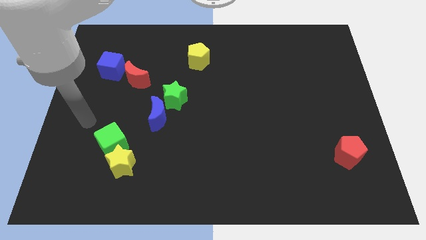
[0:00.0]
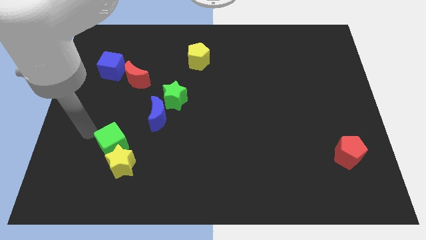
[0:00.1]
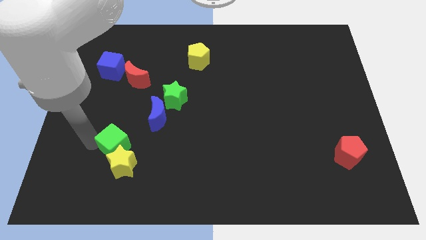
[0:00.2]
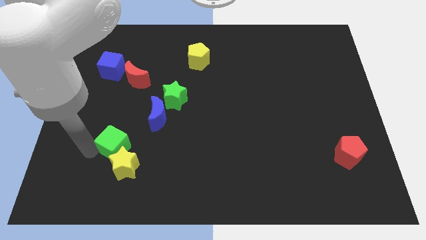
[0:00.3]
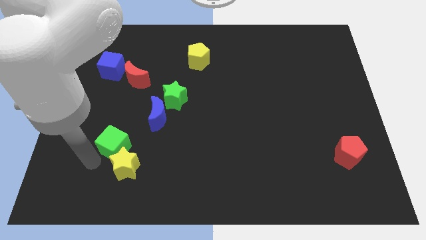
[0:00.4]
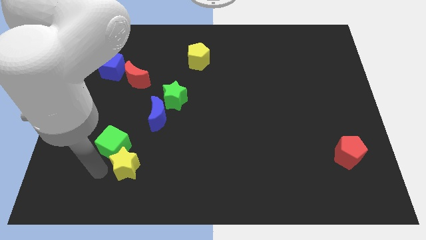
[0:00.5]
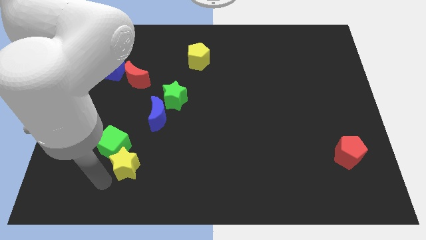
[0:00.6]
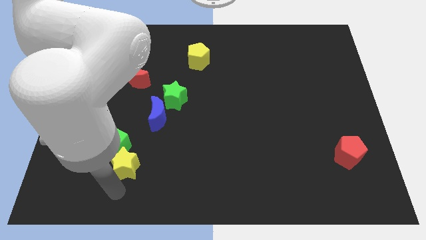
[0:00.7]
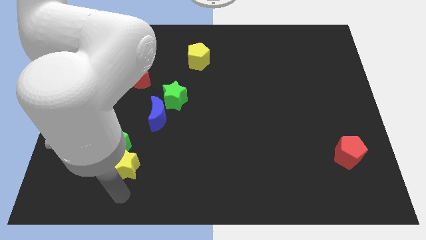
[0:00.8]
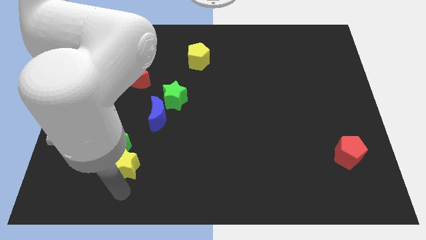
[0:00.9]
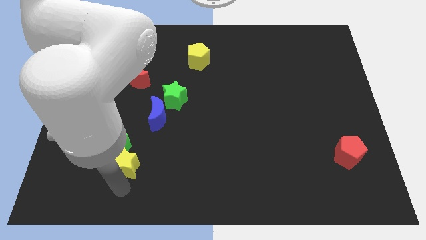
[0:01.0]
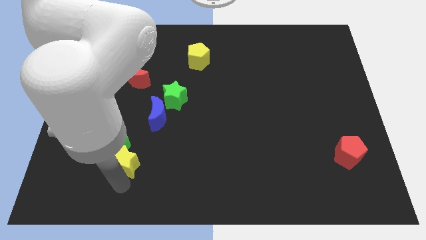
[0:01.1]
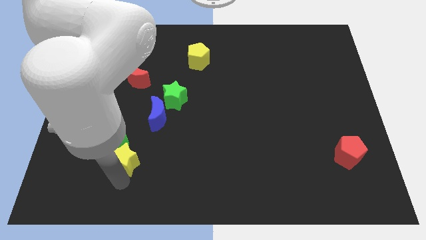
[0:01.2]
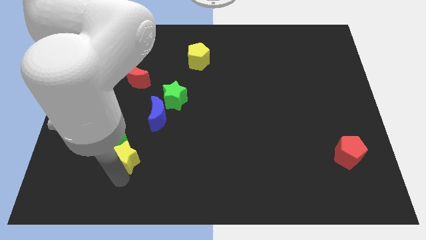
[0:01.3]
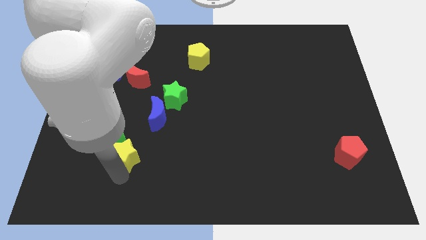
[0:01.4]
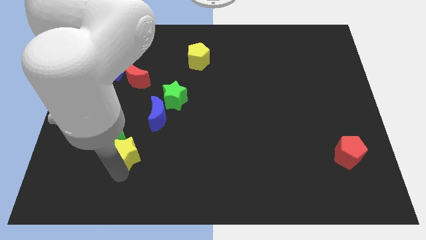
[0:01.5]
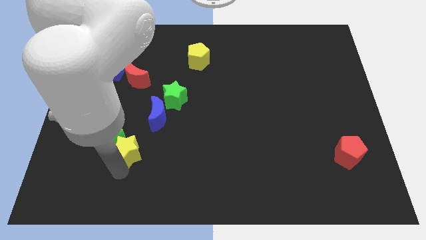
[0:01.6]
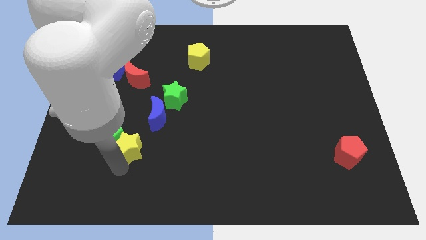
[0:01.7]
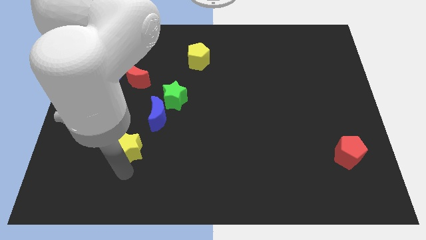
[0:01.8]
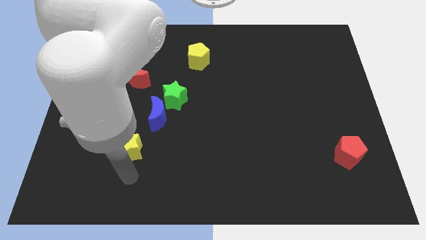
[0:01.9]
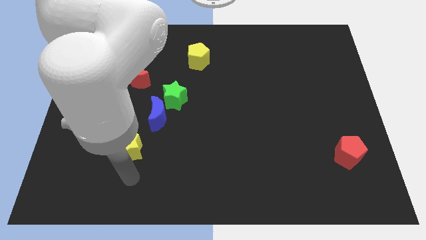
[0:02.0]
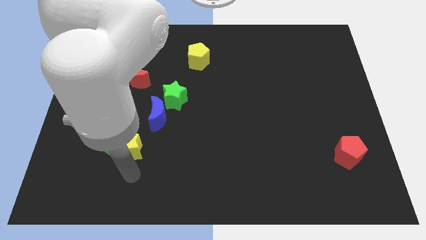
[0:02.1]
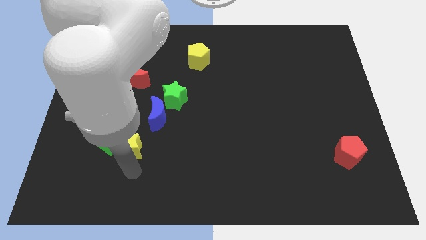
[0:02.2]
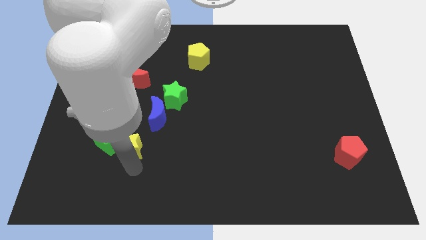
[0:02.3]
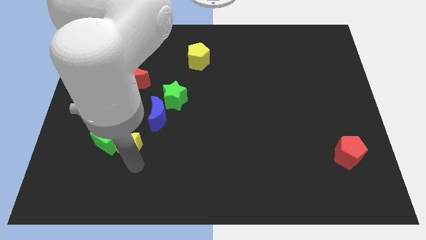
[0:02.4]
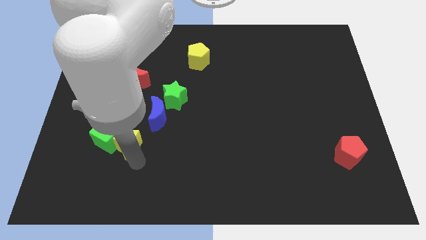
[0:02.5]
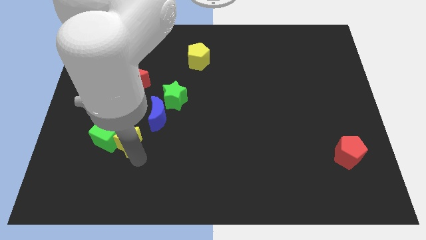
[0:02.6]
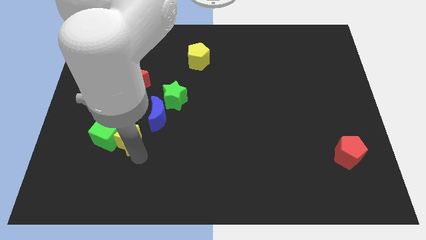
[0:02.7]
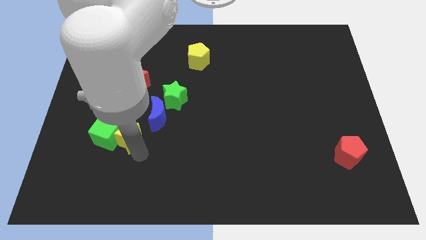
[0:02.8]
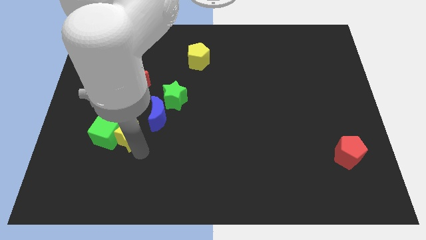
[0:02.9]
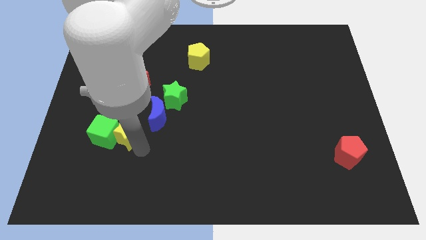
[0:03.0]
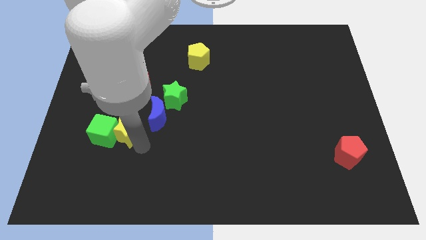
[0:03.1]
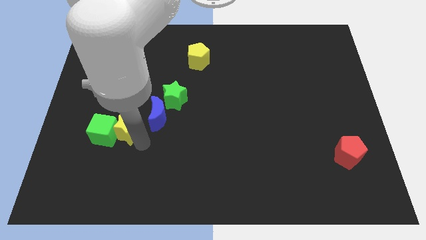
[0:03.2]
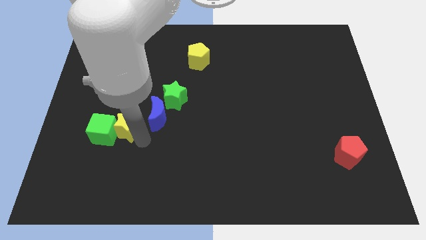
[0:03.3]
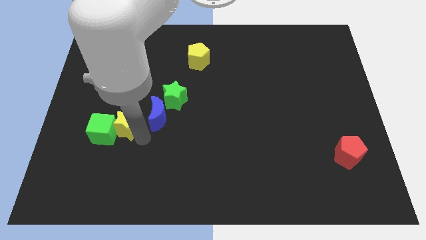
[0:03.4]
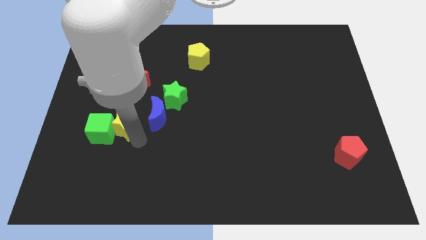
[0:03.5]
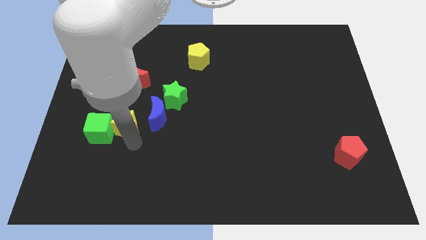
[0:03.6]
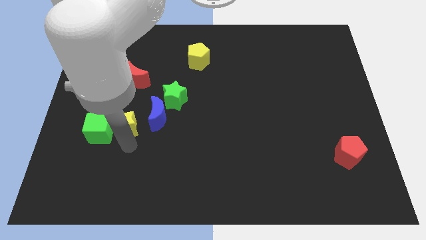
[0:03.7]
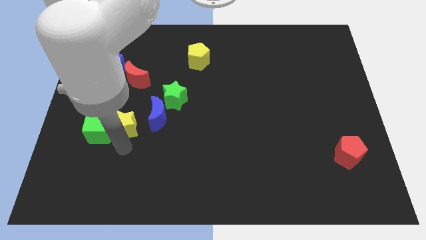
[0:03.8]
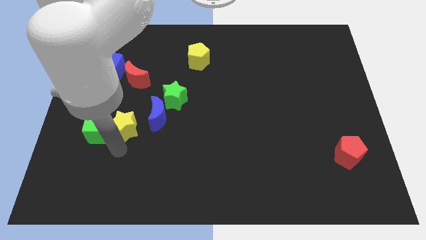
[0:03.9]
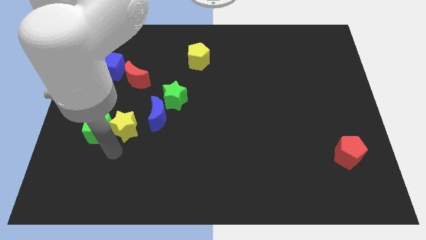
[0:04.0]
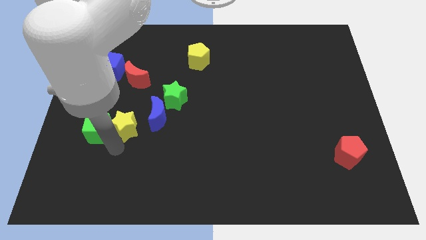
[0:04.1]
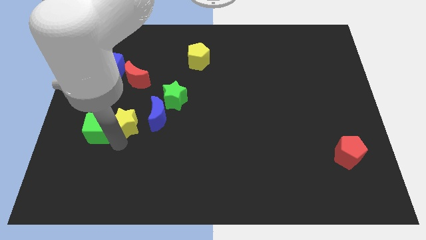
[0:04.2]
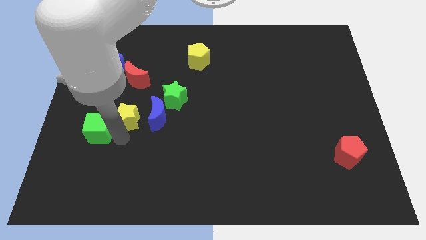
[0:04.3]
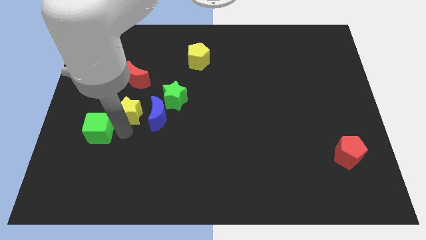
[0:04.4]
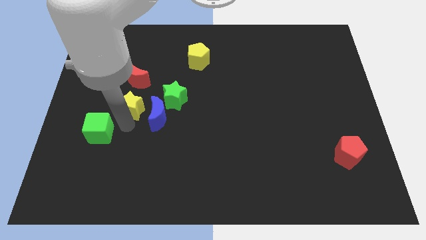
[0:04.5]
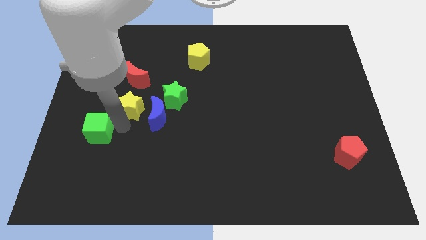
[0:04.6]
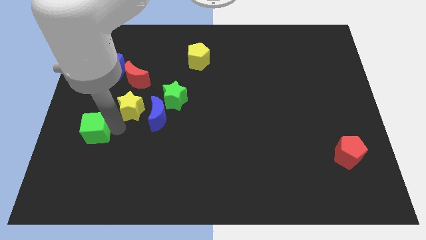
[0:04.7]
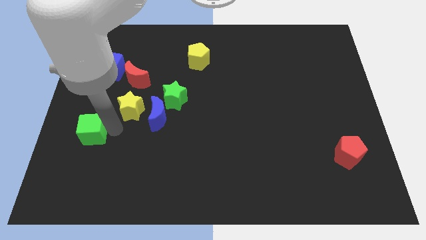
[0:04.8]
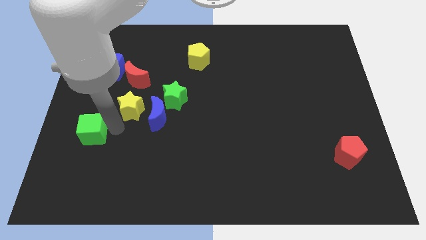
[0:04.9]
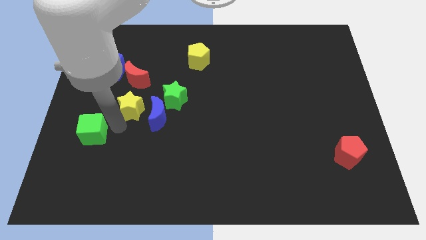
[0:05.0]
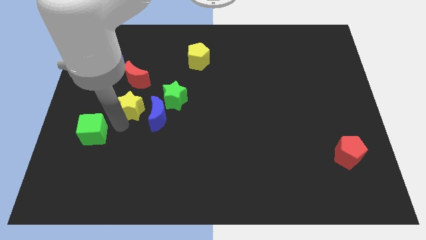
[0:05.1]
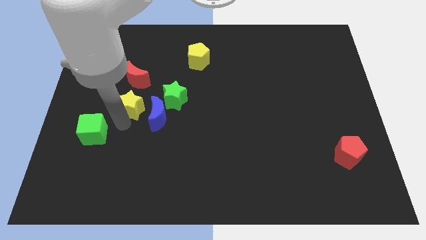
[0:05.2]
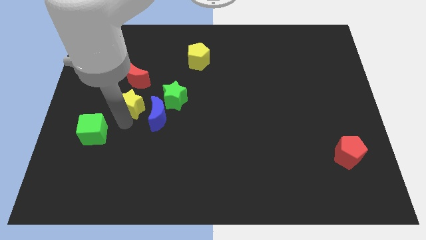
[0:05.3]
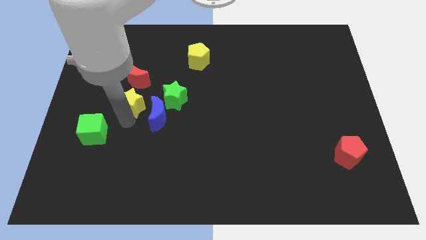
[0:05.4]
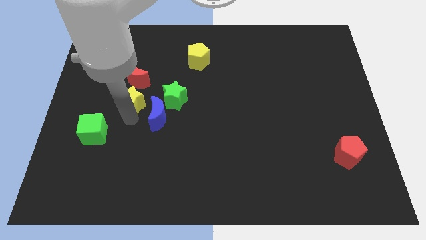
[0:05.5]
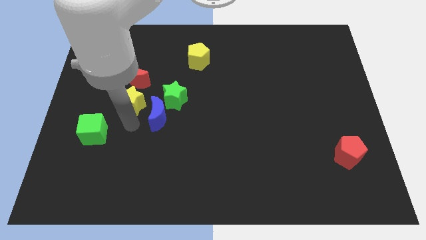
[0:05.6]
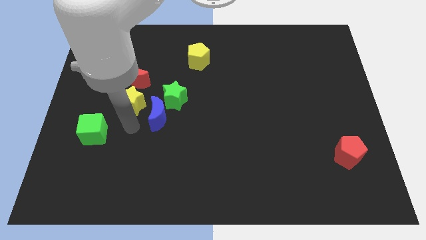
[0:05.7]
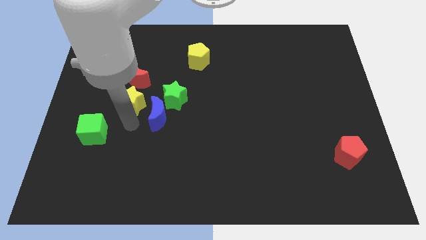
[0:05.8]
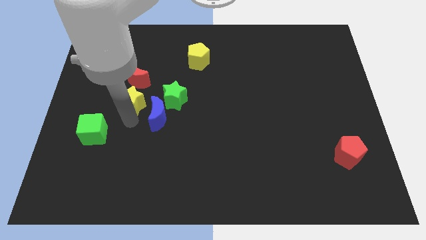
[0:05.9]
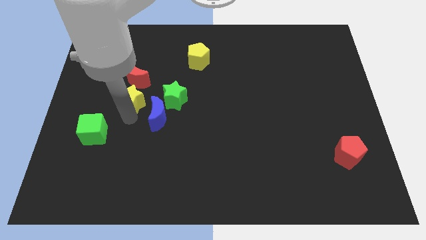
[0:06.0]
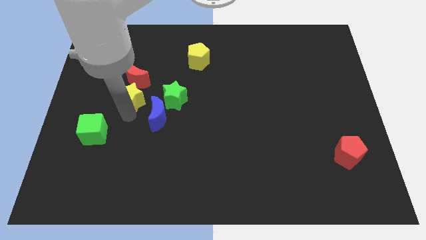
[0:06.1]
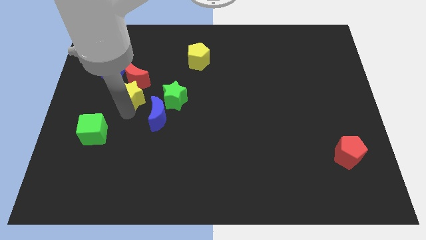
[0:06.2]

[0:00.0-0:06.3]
push the yellow star close to the red moon

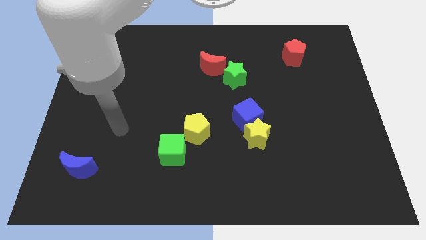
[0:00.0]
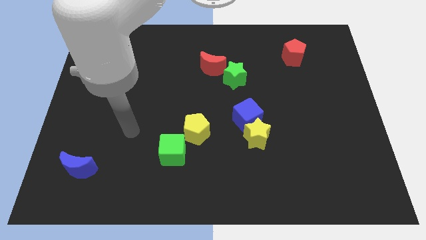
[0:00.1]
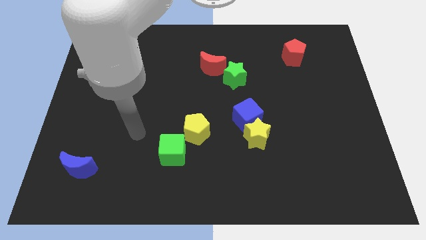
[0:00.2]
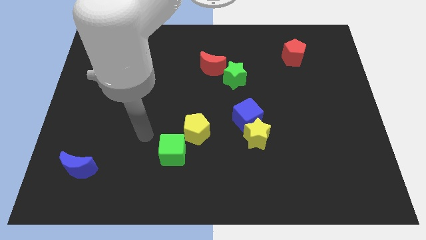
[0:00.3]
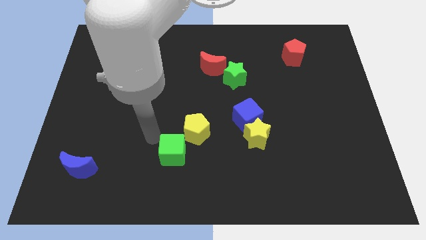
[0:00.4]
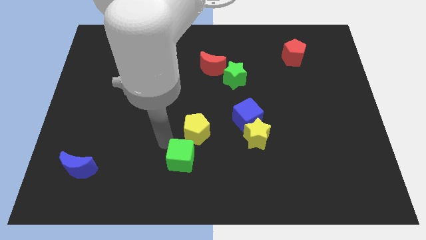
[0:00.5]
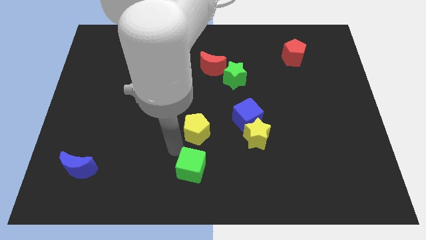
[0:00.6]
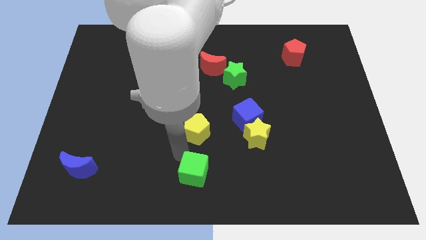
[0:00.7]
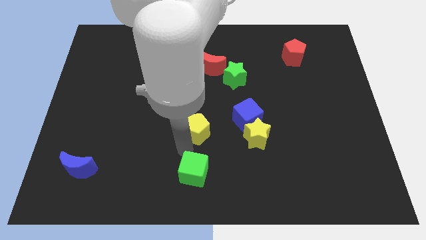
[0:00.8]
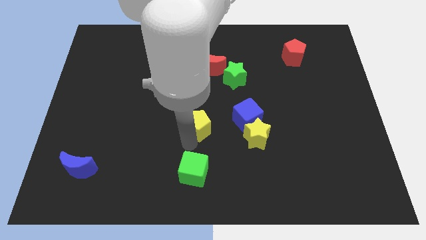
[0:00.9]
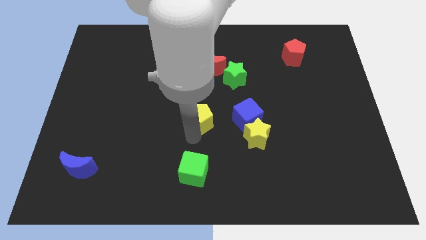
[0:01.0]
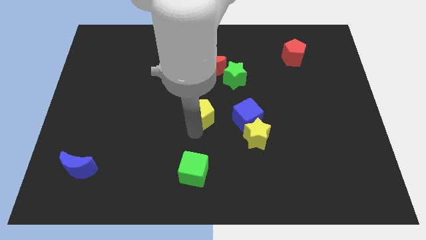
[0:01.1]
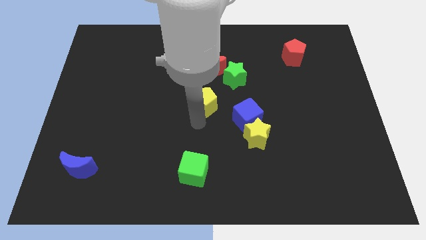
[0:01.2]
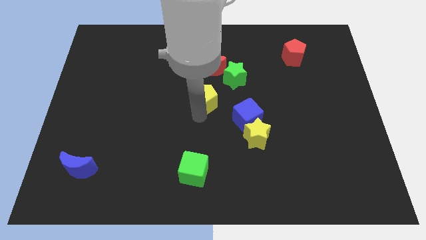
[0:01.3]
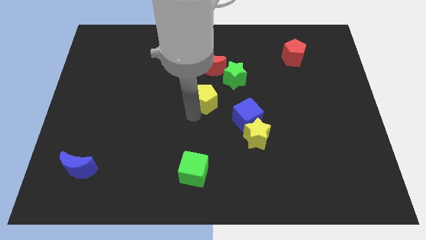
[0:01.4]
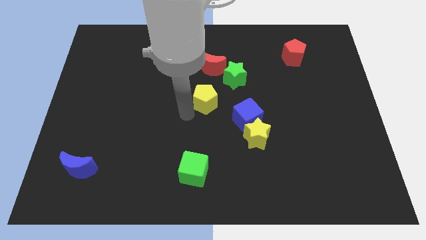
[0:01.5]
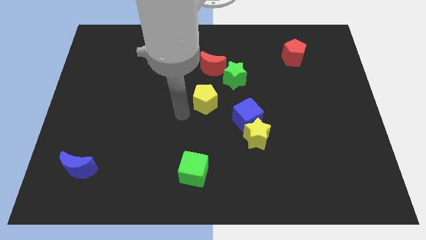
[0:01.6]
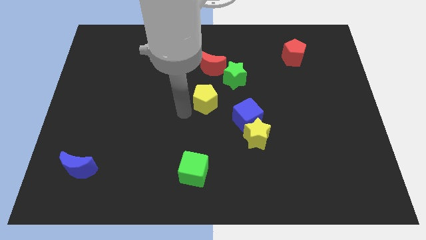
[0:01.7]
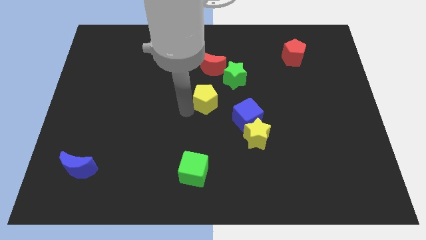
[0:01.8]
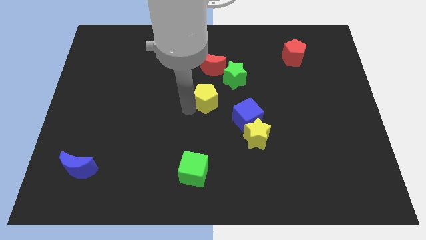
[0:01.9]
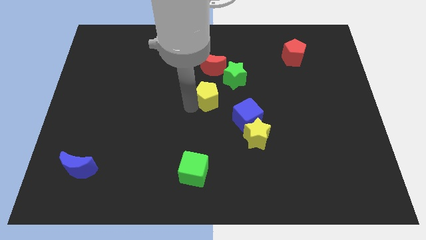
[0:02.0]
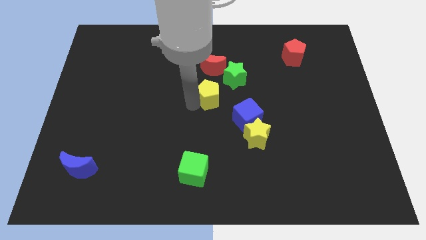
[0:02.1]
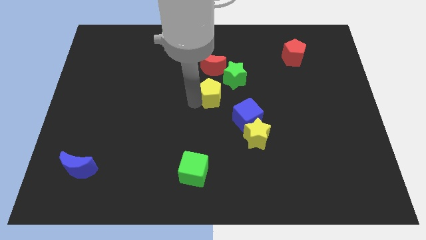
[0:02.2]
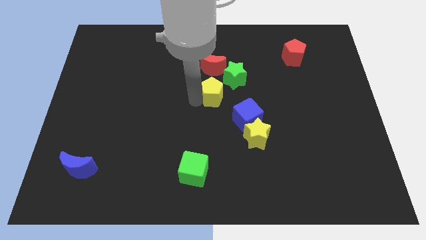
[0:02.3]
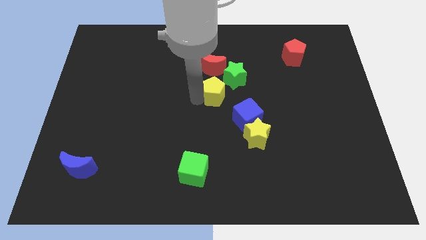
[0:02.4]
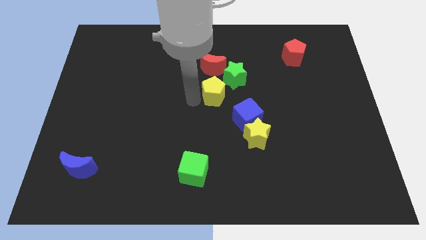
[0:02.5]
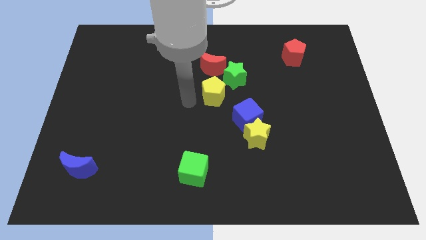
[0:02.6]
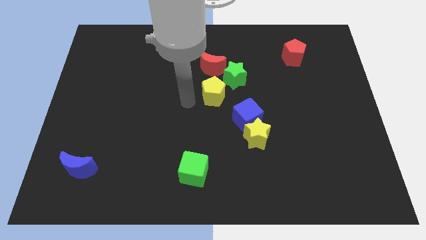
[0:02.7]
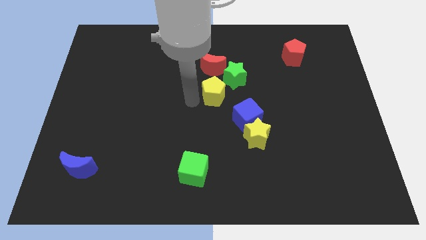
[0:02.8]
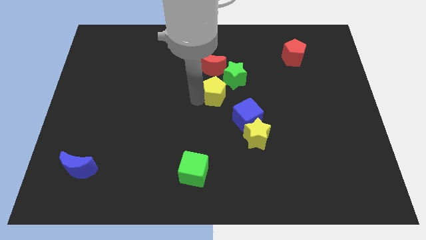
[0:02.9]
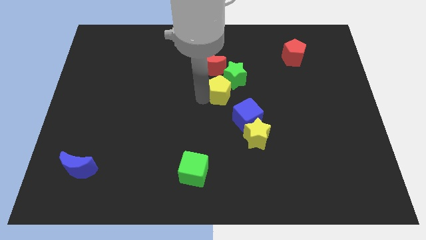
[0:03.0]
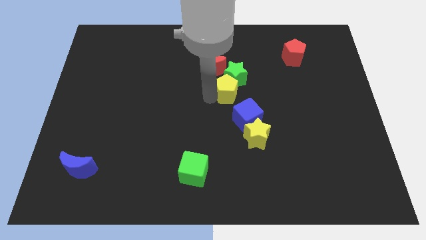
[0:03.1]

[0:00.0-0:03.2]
move the yellow pentagon next to the green star
